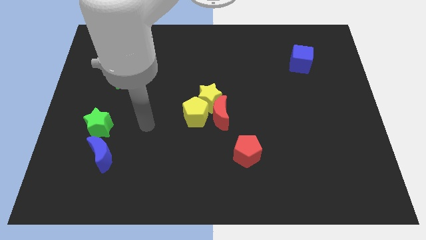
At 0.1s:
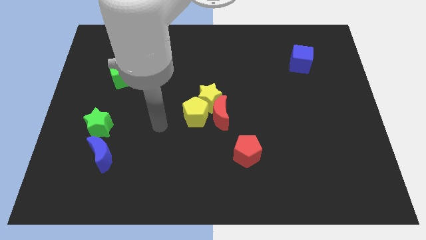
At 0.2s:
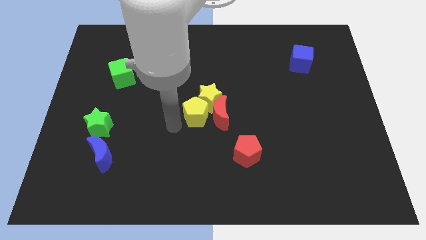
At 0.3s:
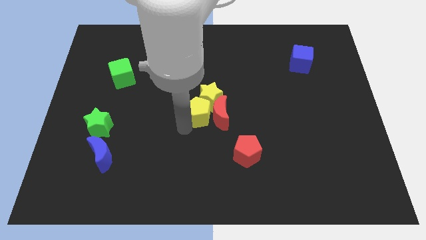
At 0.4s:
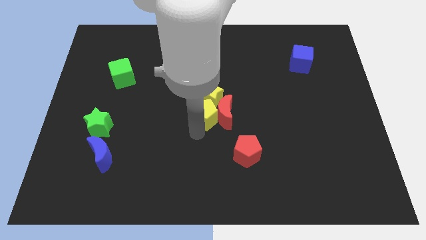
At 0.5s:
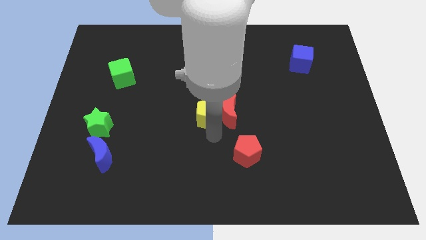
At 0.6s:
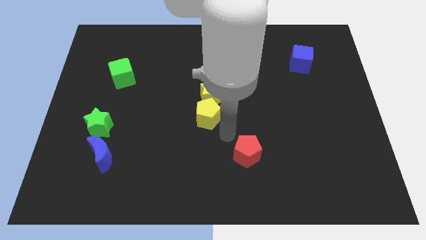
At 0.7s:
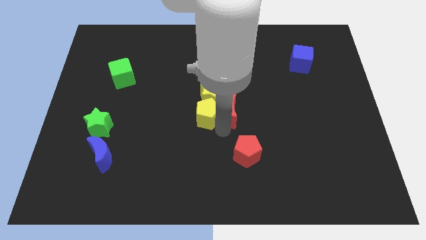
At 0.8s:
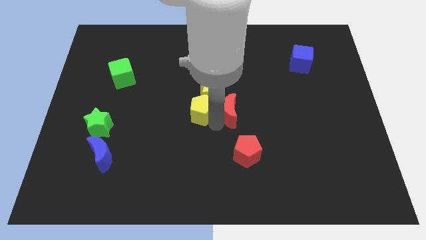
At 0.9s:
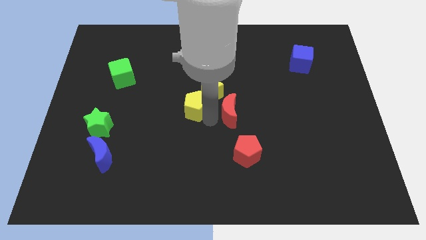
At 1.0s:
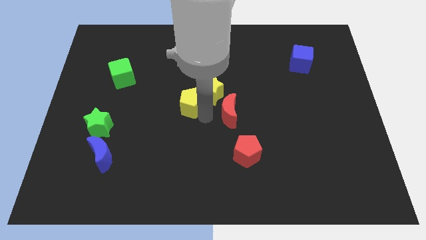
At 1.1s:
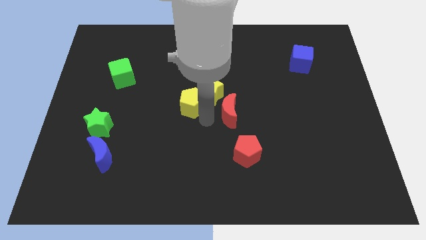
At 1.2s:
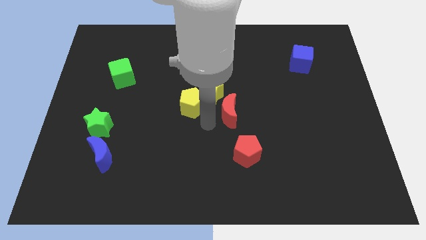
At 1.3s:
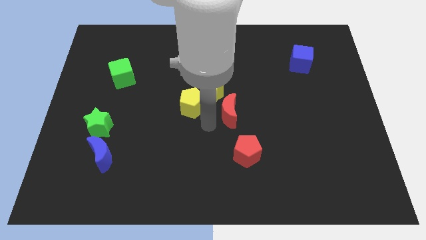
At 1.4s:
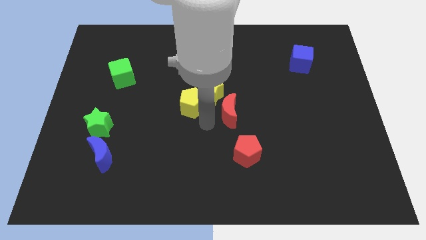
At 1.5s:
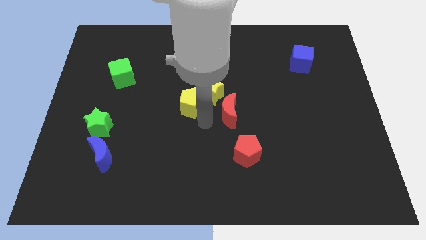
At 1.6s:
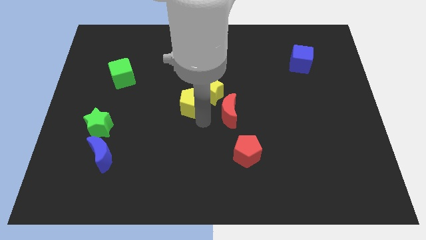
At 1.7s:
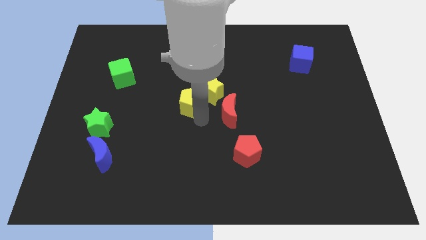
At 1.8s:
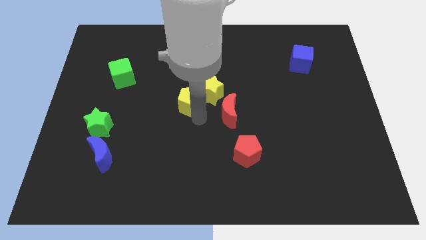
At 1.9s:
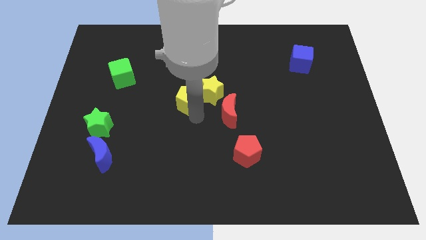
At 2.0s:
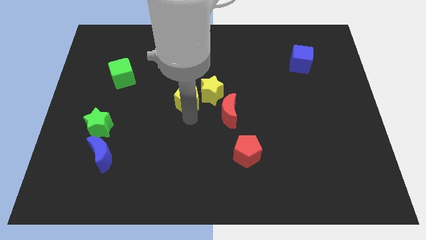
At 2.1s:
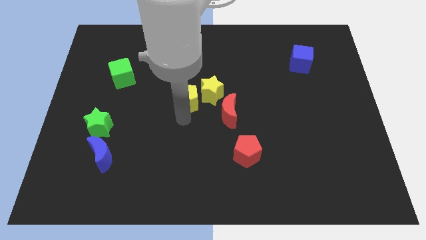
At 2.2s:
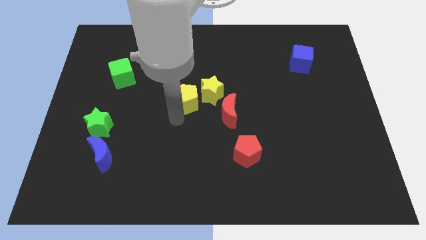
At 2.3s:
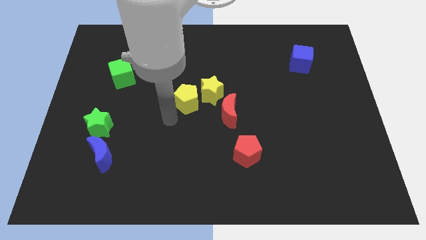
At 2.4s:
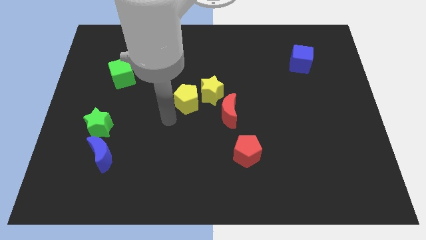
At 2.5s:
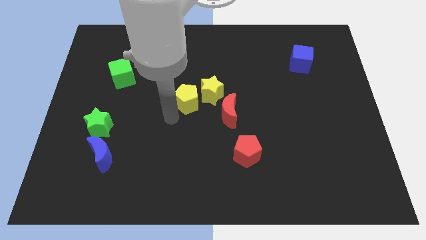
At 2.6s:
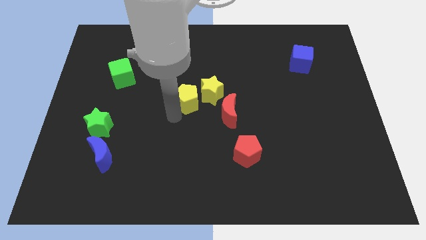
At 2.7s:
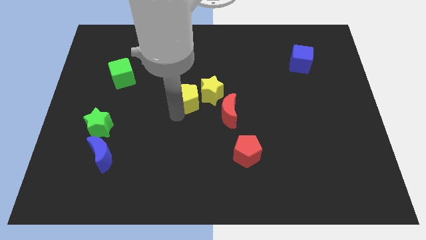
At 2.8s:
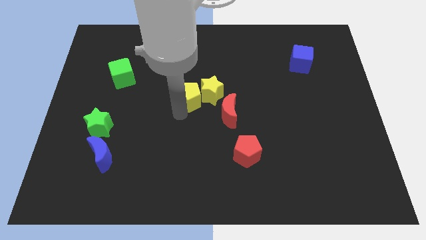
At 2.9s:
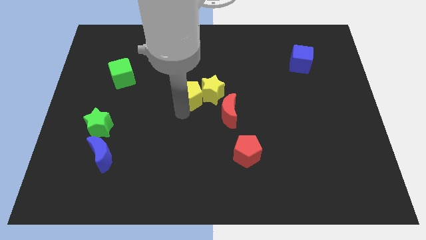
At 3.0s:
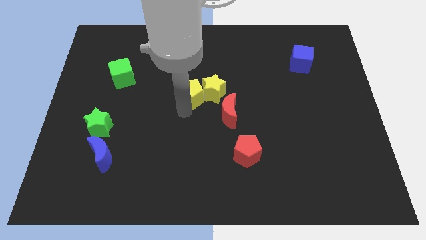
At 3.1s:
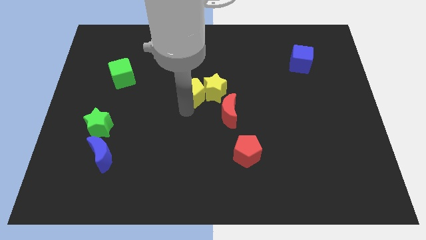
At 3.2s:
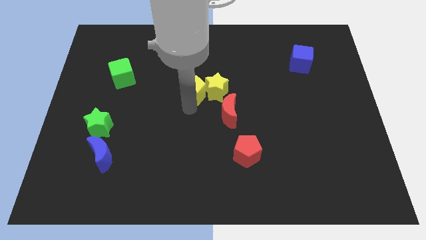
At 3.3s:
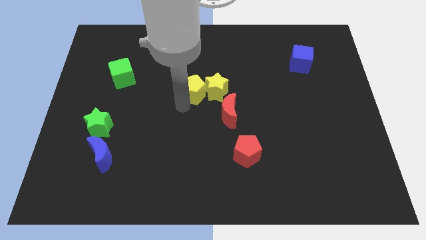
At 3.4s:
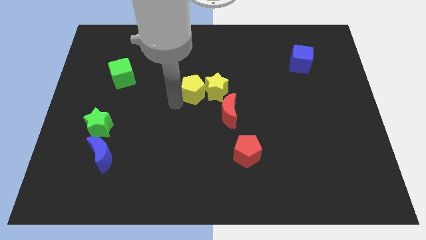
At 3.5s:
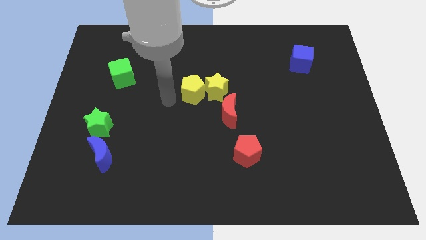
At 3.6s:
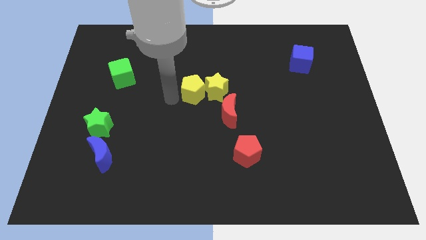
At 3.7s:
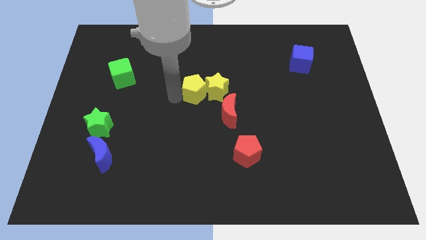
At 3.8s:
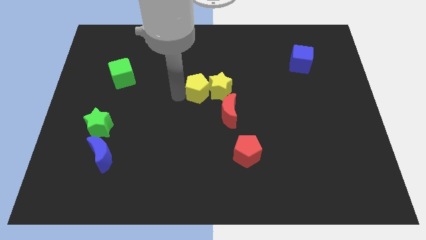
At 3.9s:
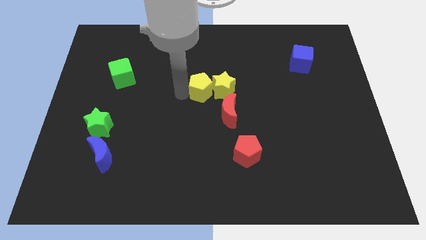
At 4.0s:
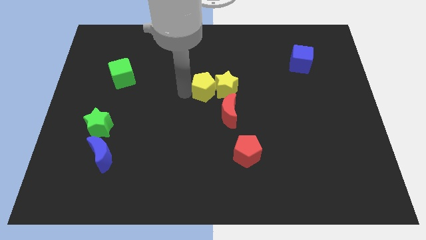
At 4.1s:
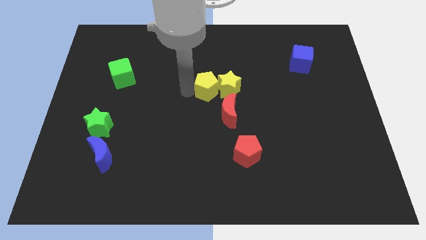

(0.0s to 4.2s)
push the yellow pentagon slightly up and right diagonally

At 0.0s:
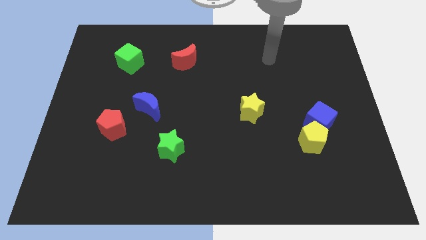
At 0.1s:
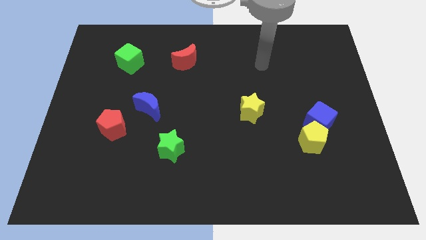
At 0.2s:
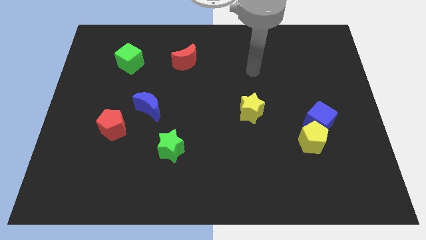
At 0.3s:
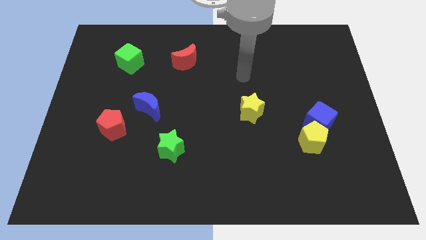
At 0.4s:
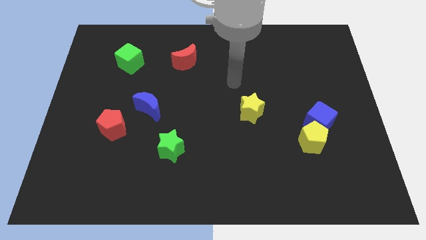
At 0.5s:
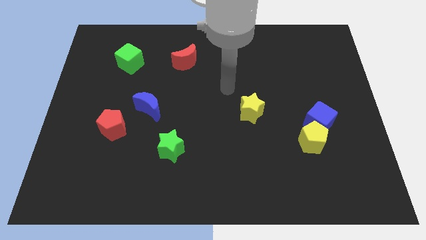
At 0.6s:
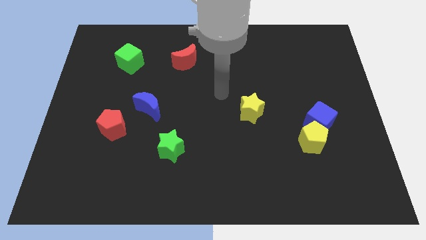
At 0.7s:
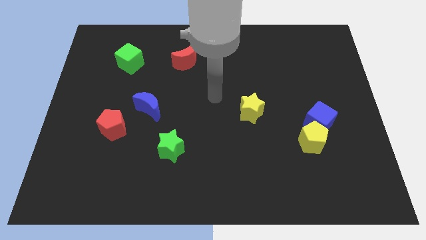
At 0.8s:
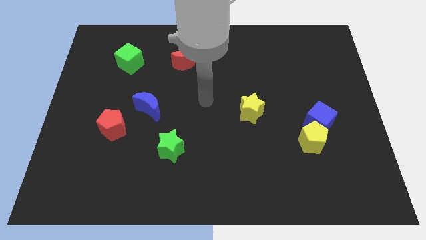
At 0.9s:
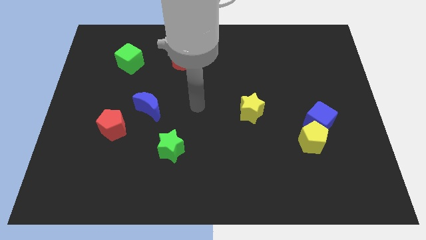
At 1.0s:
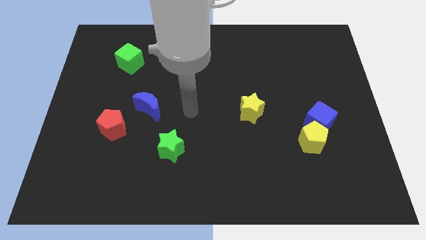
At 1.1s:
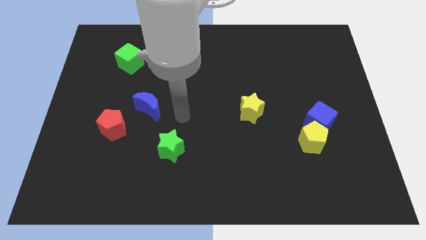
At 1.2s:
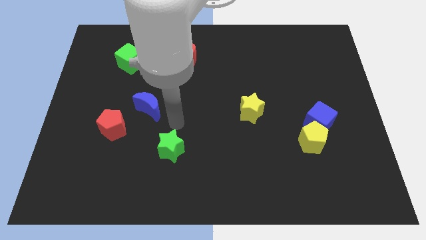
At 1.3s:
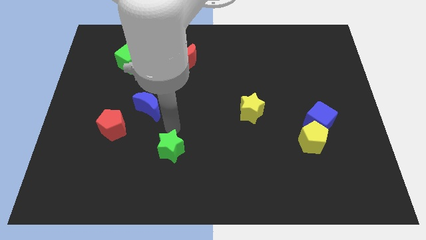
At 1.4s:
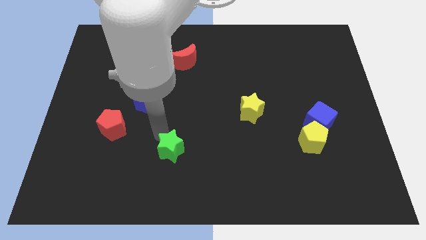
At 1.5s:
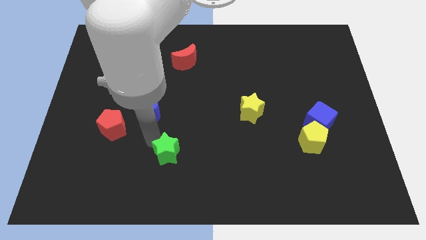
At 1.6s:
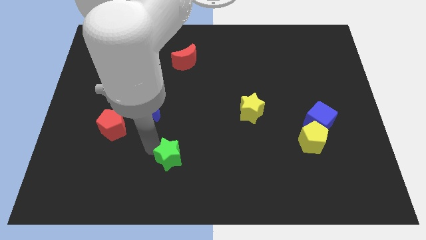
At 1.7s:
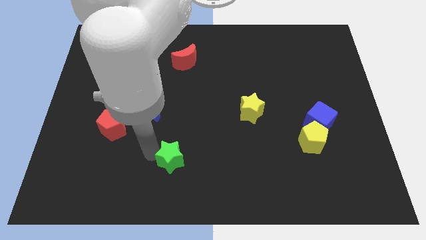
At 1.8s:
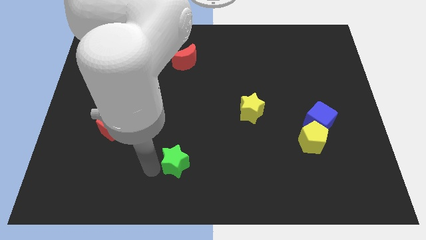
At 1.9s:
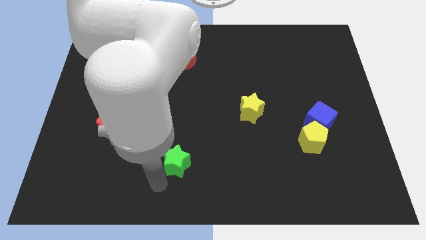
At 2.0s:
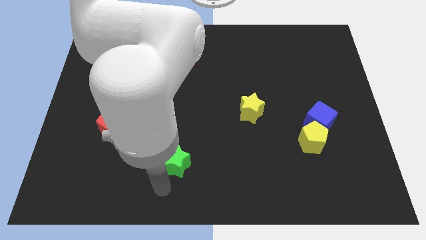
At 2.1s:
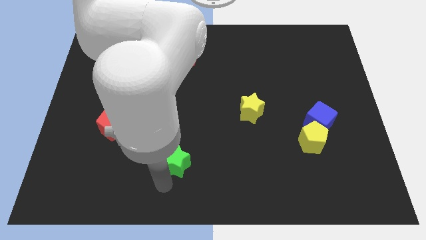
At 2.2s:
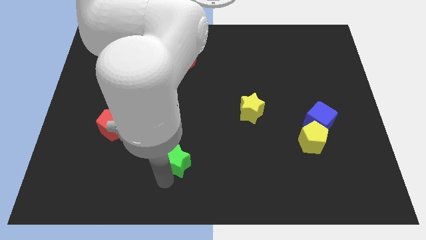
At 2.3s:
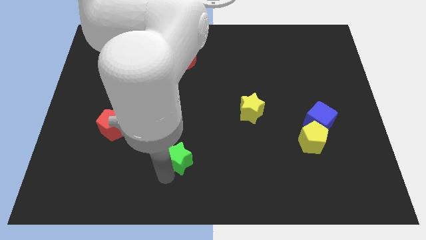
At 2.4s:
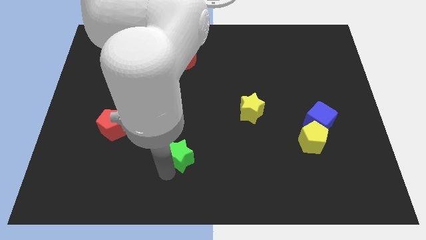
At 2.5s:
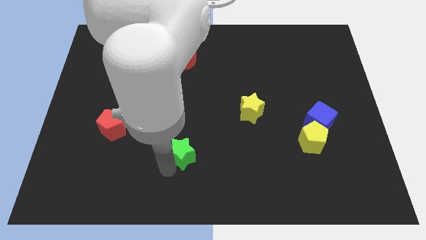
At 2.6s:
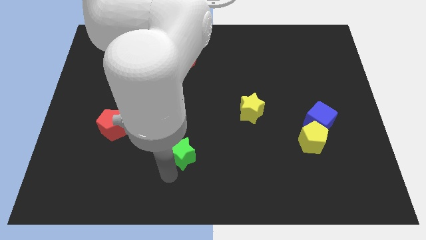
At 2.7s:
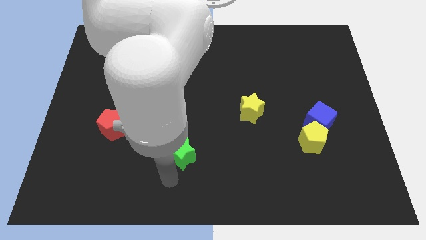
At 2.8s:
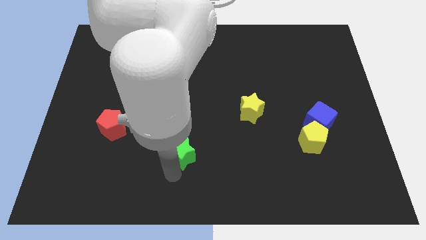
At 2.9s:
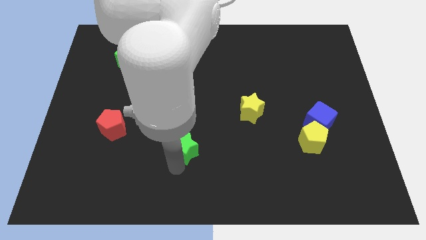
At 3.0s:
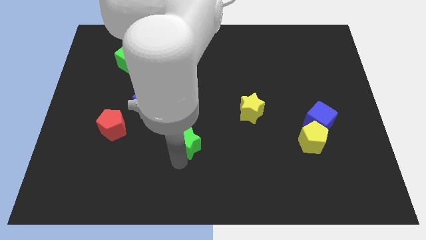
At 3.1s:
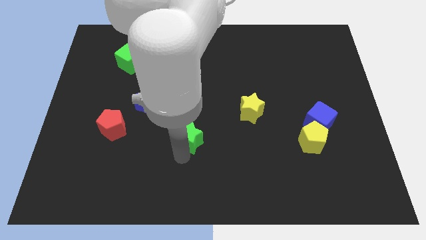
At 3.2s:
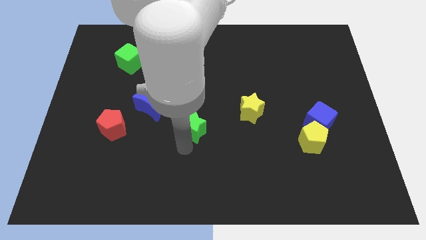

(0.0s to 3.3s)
push the green star upwards and then right a little bit

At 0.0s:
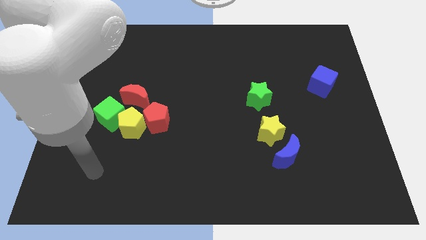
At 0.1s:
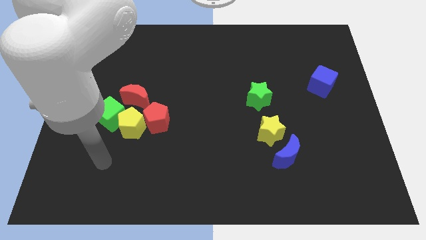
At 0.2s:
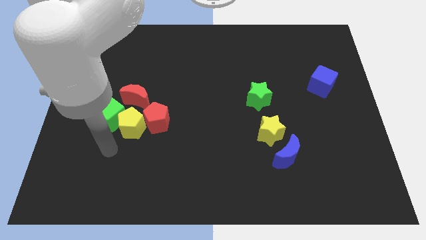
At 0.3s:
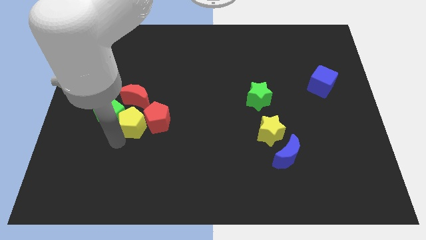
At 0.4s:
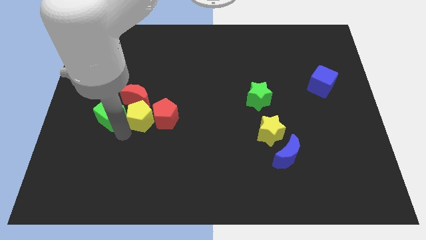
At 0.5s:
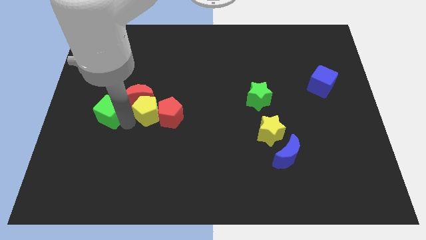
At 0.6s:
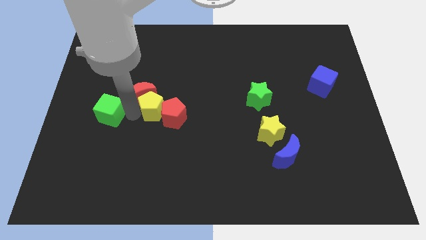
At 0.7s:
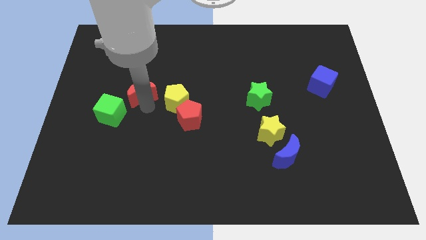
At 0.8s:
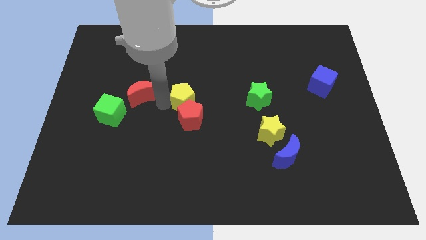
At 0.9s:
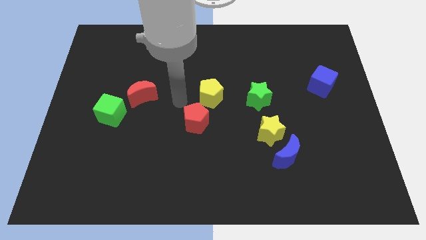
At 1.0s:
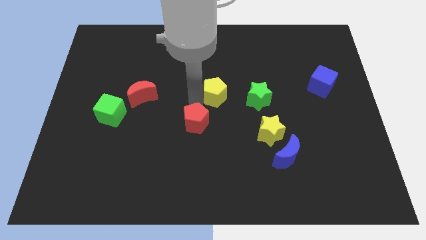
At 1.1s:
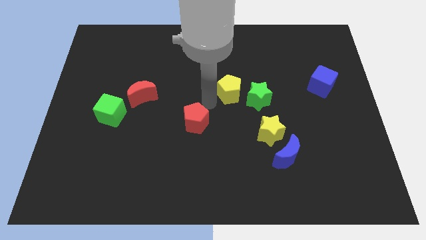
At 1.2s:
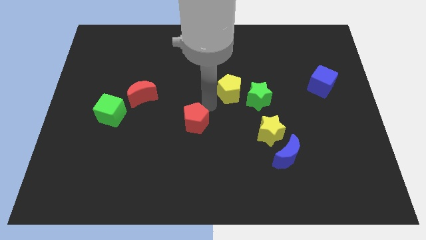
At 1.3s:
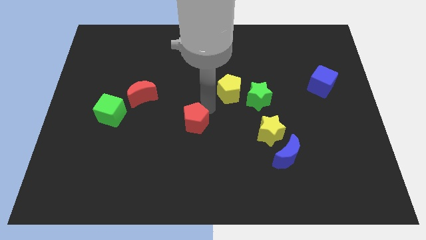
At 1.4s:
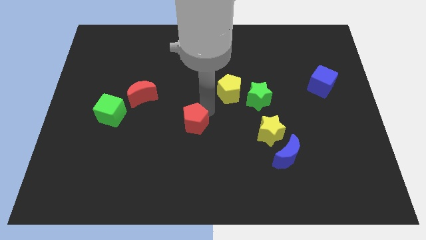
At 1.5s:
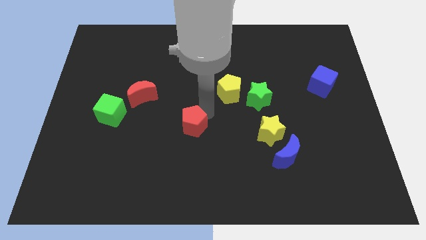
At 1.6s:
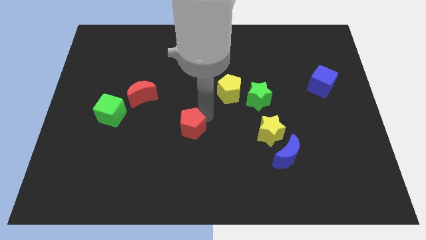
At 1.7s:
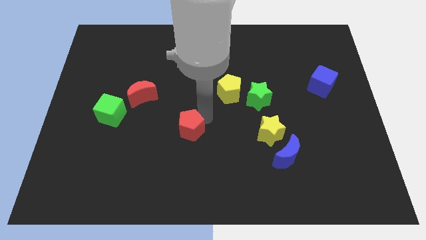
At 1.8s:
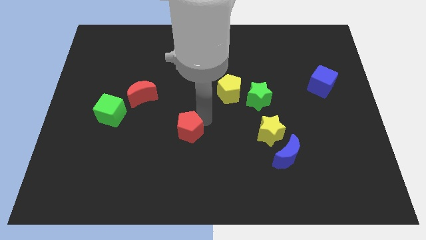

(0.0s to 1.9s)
push the red pentagon diagonally down and to the right a bit
